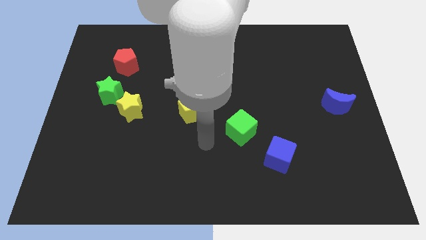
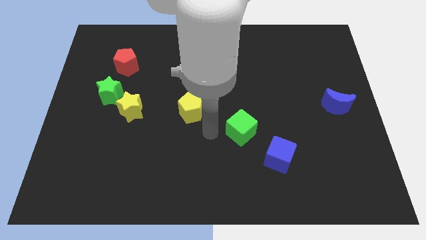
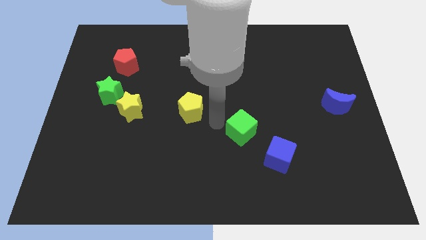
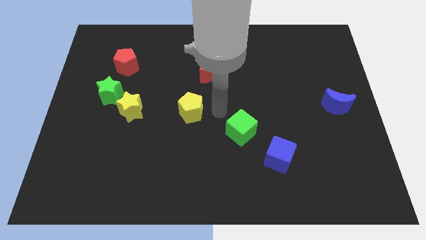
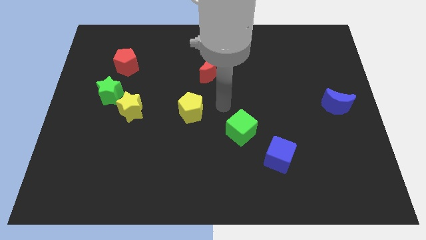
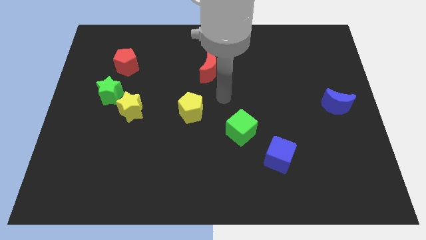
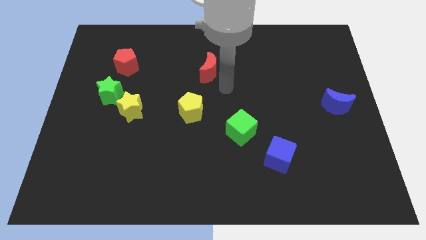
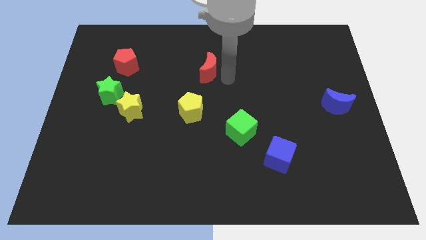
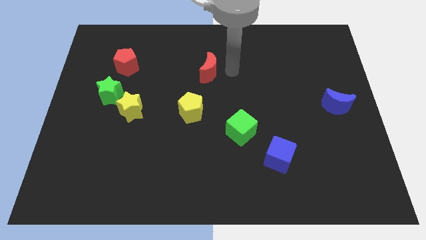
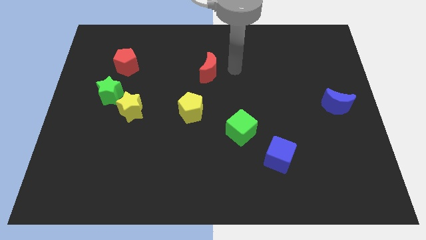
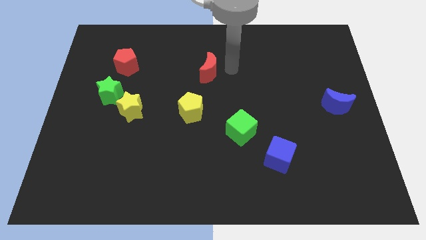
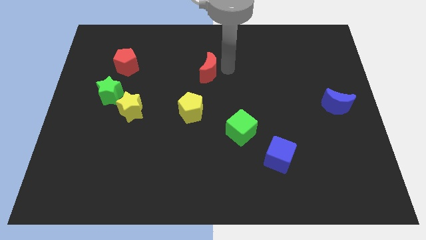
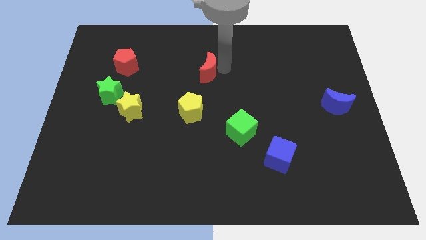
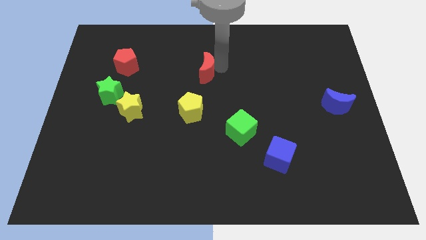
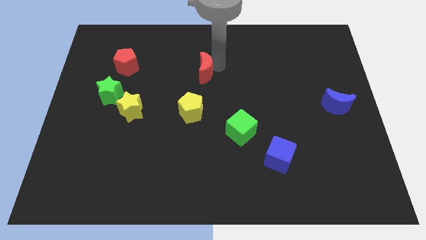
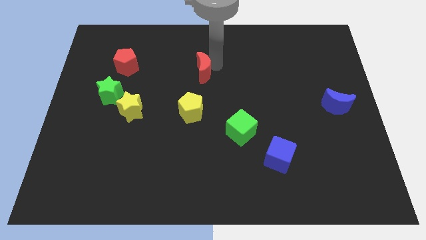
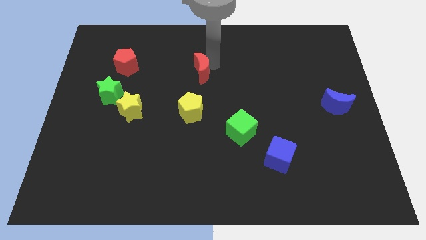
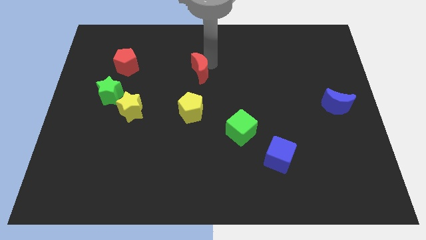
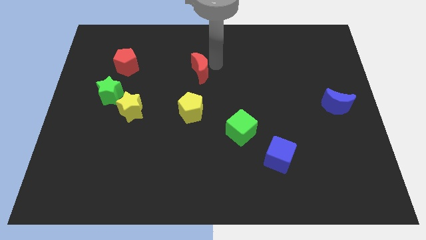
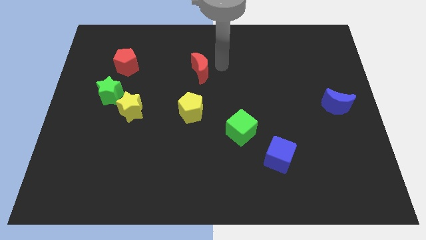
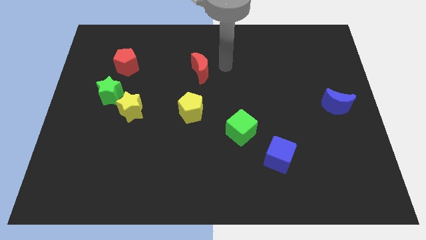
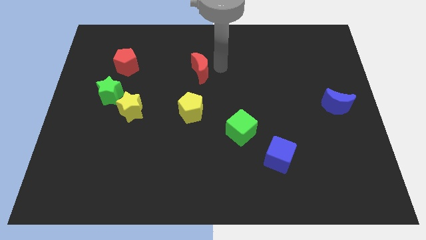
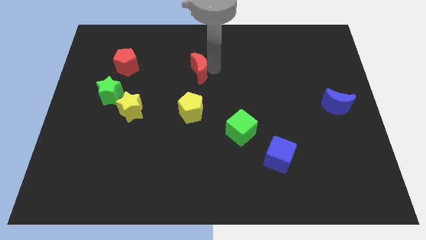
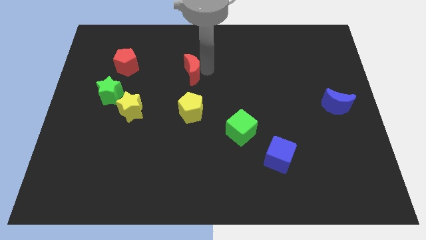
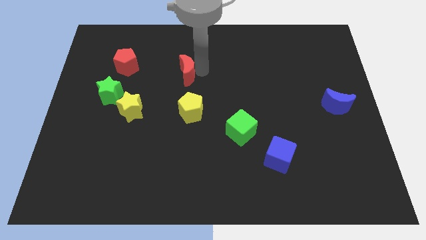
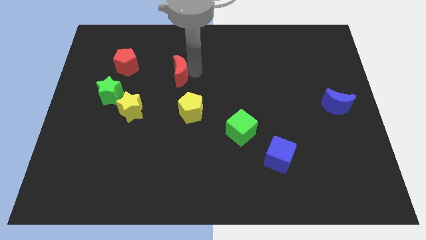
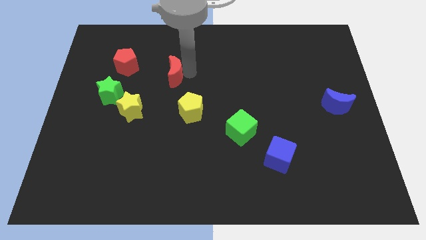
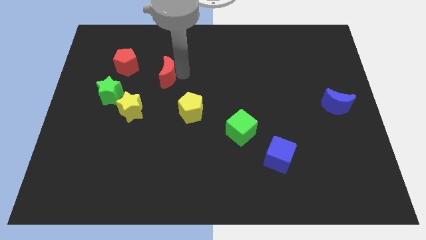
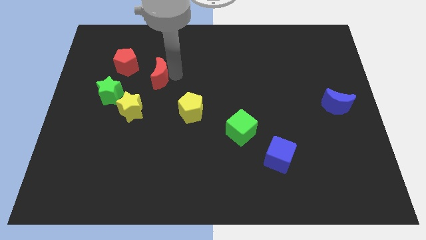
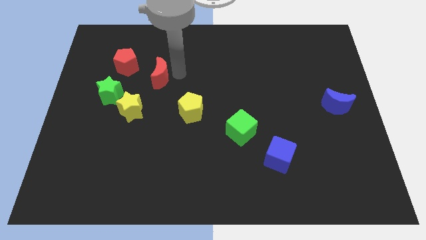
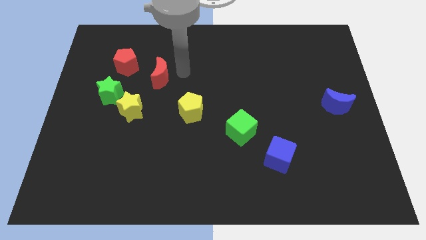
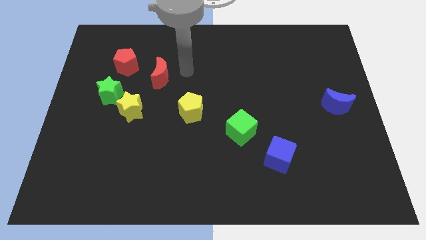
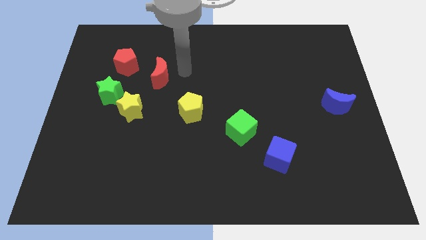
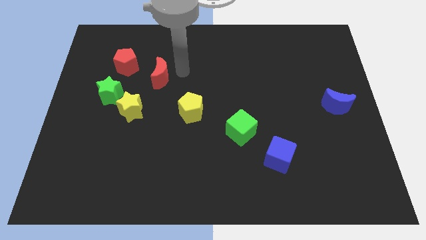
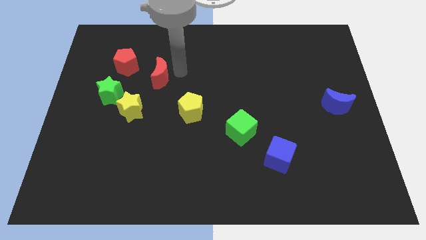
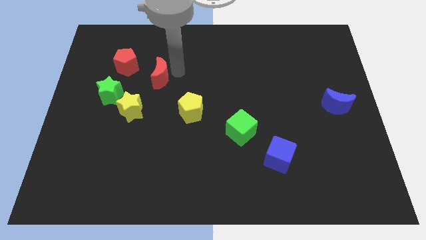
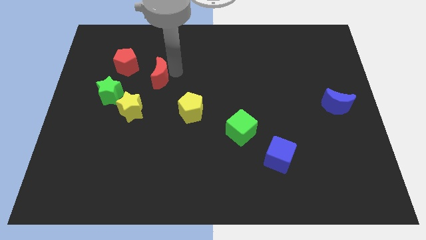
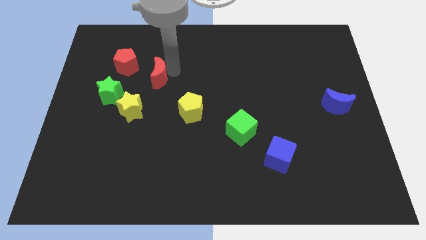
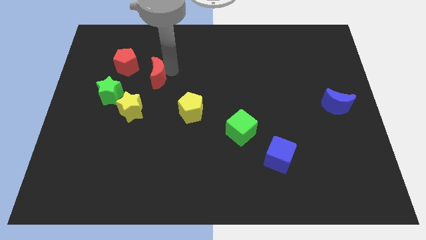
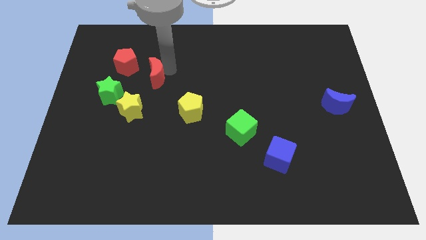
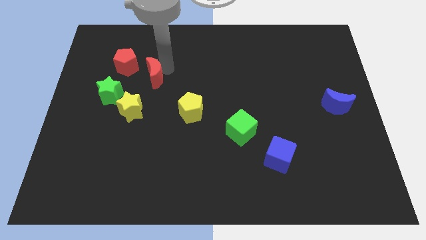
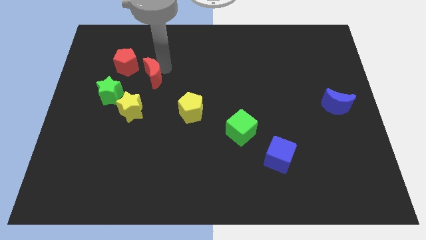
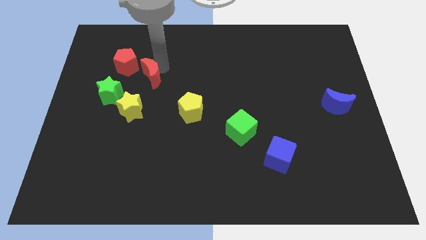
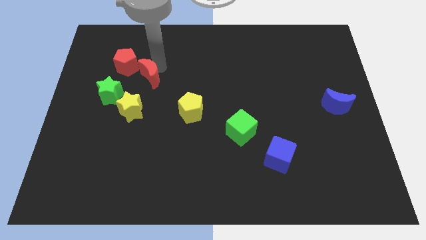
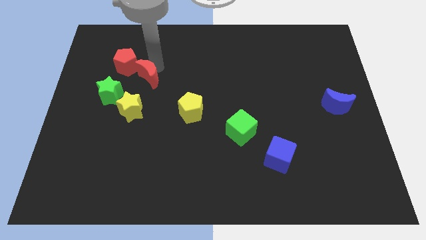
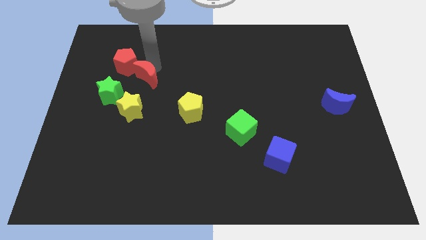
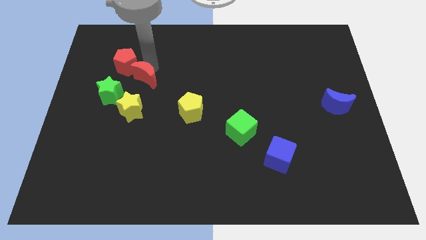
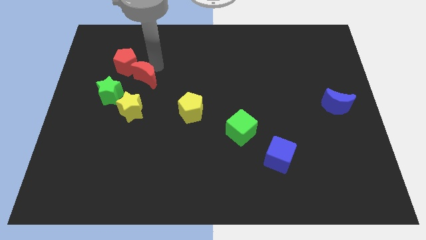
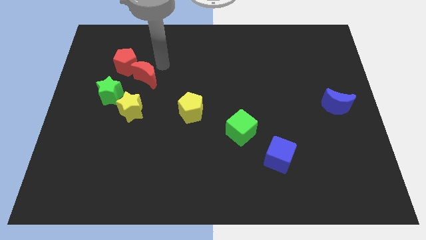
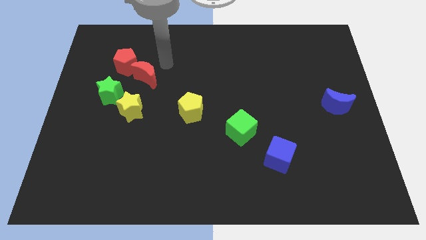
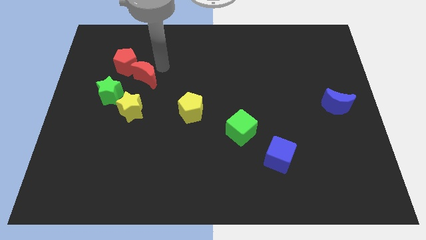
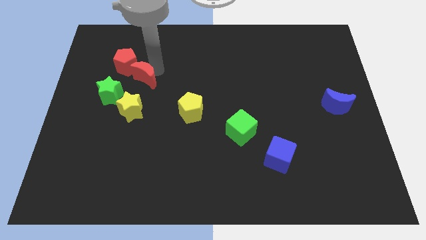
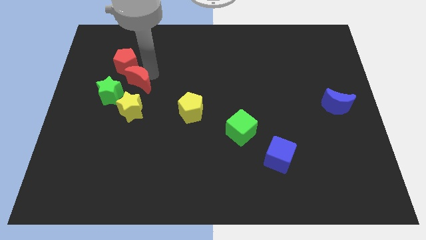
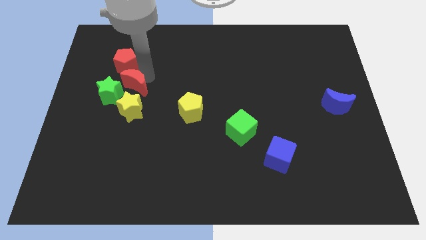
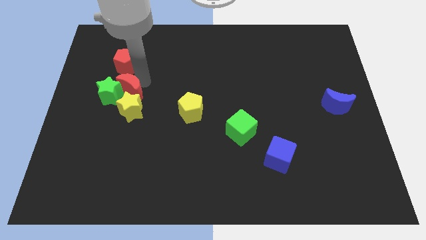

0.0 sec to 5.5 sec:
slide the red moon next to the green star

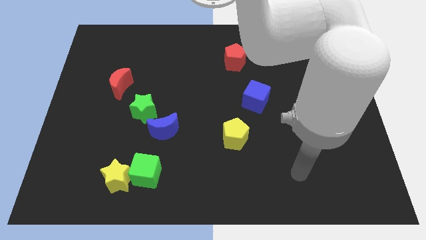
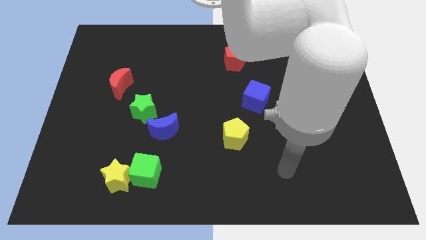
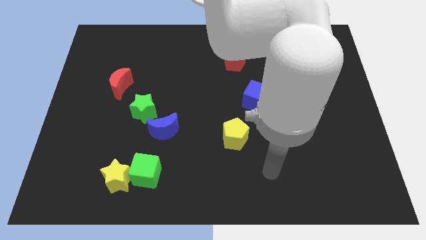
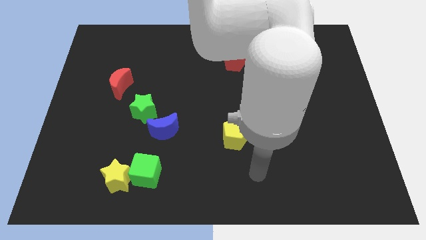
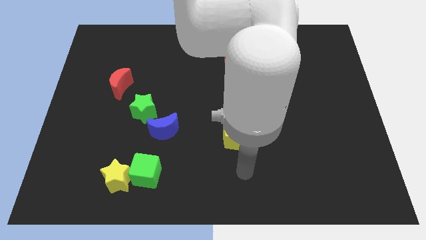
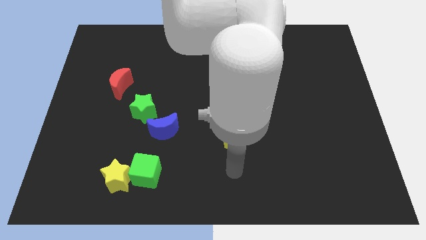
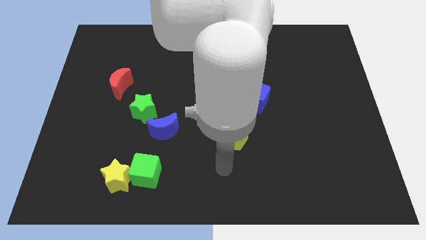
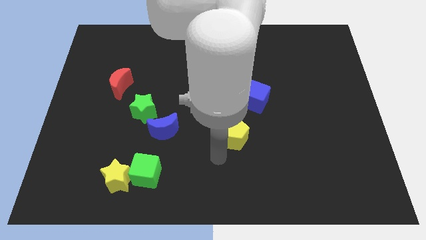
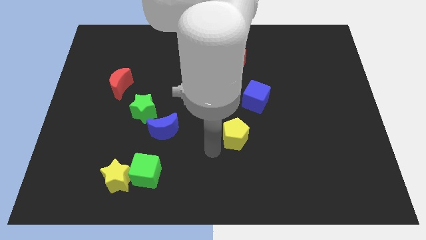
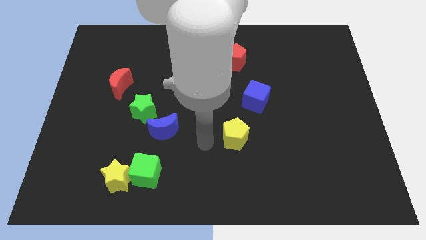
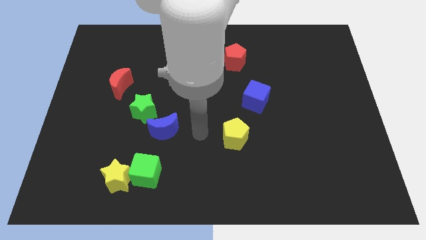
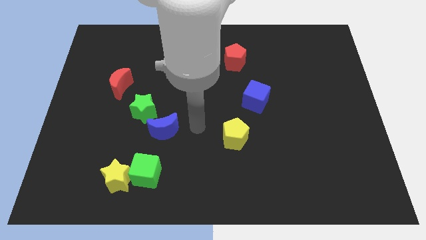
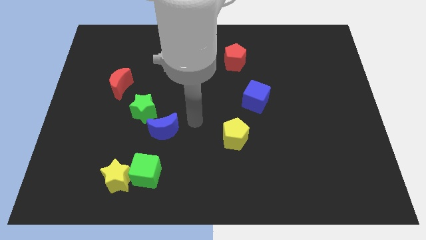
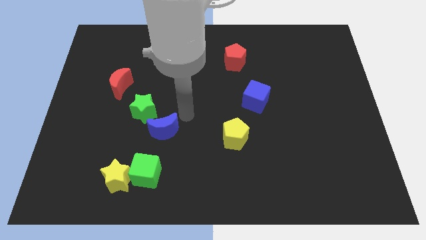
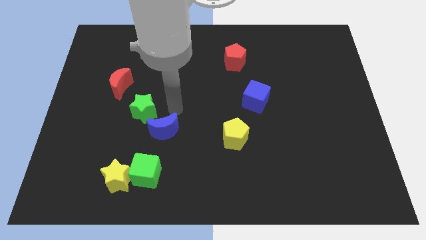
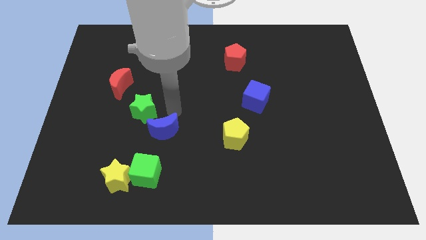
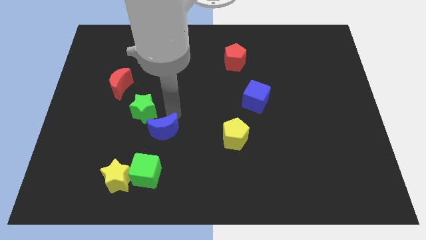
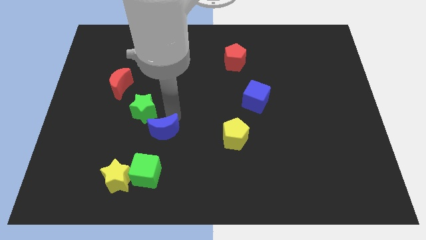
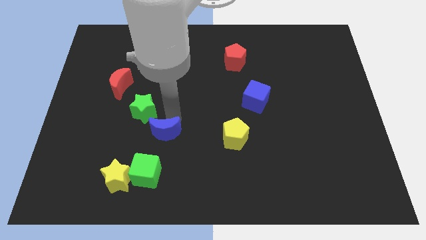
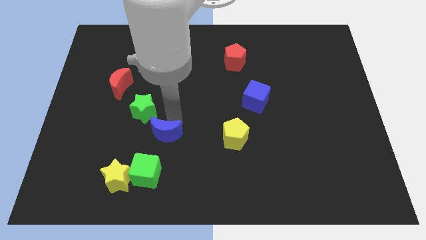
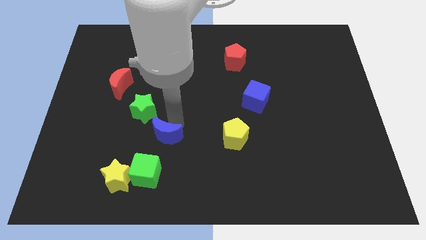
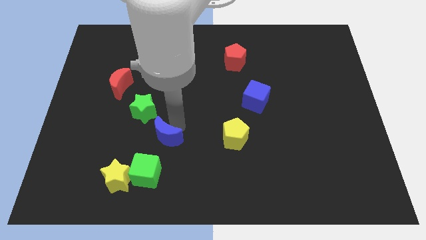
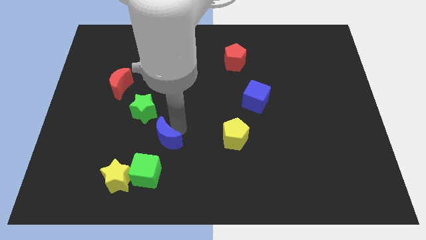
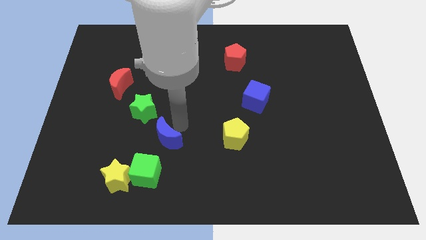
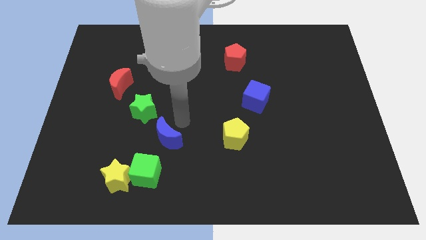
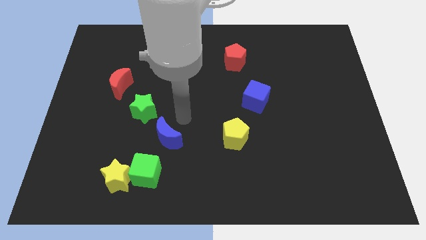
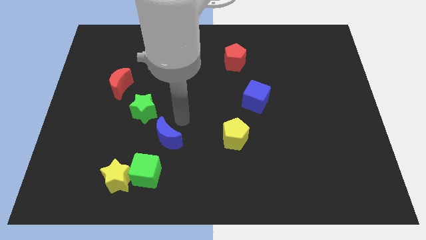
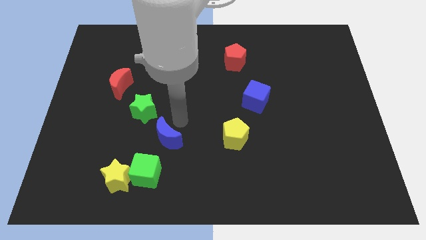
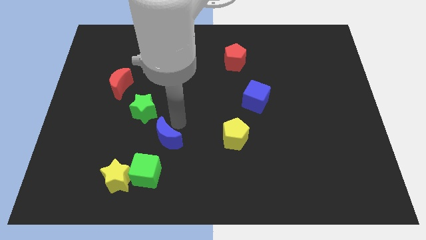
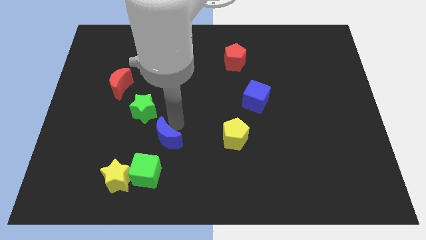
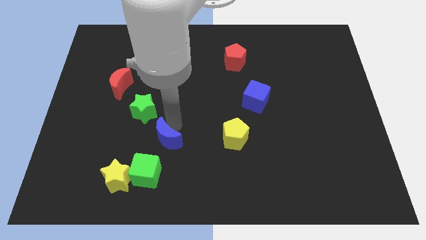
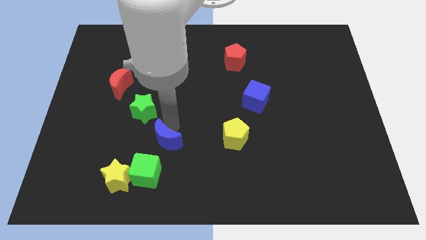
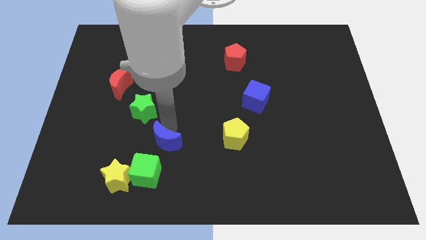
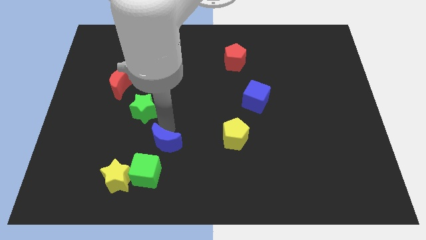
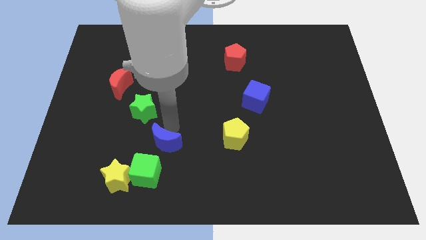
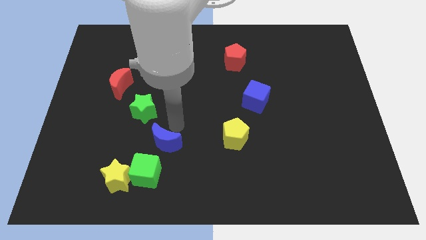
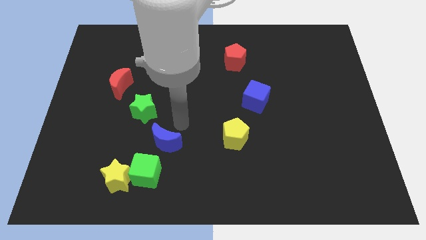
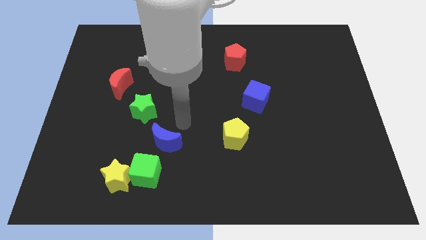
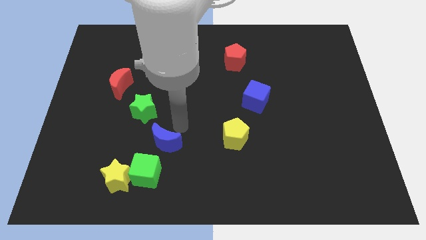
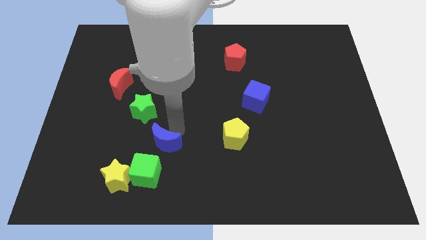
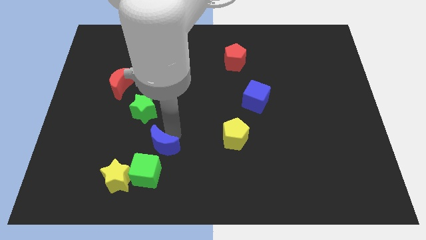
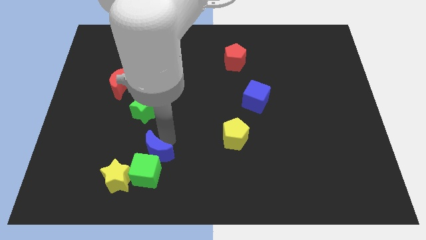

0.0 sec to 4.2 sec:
slide the blue moon close to the green cube
